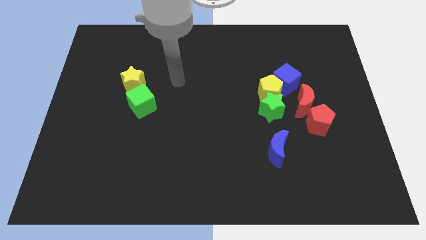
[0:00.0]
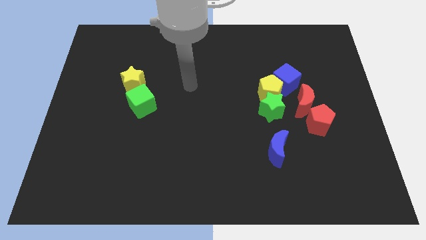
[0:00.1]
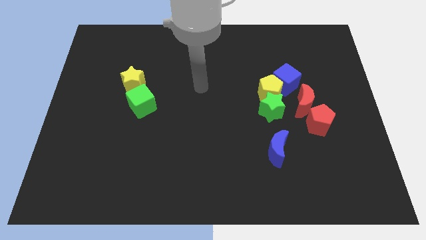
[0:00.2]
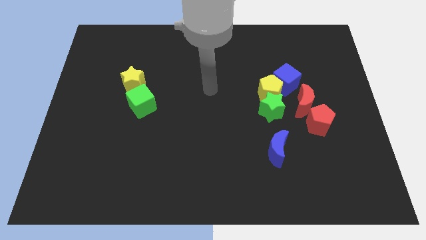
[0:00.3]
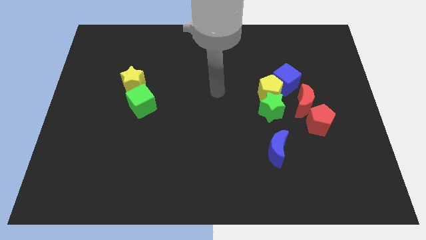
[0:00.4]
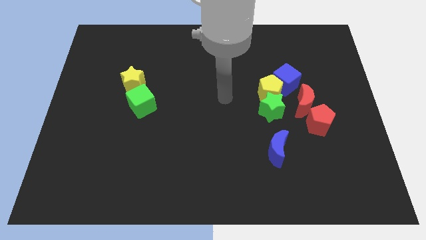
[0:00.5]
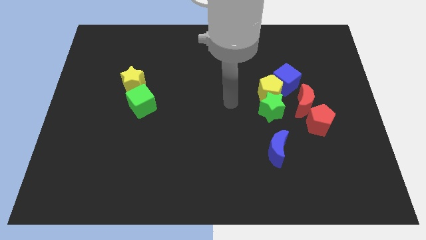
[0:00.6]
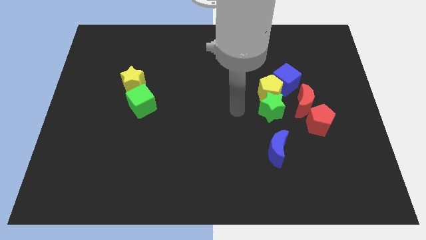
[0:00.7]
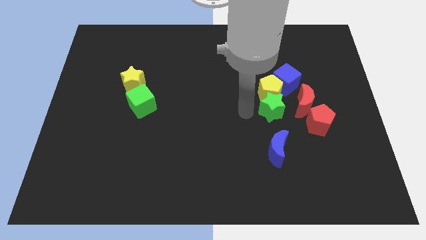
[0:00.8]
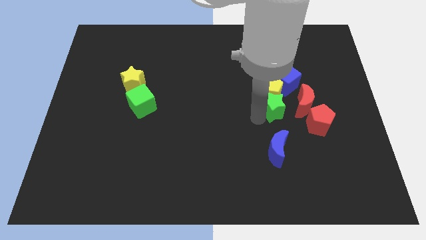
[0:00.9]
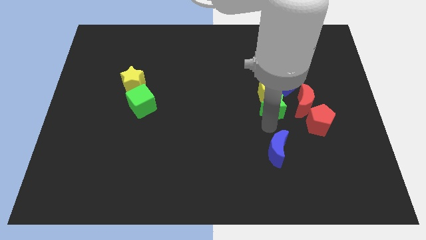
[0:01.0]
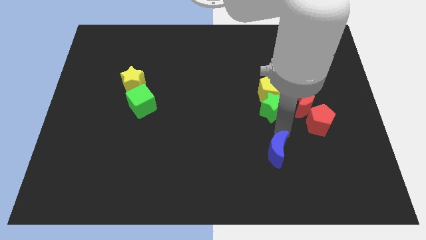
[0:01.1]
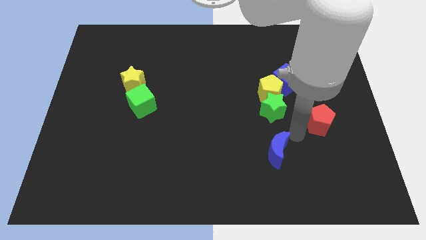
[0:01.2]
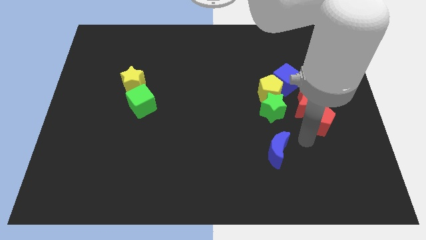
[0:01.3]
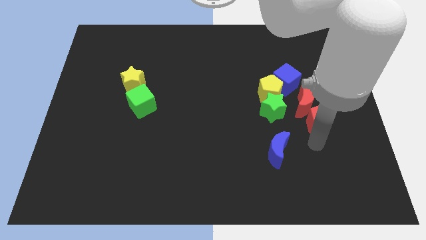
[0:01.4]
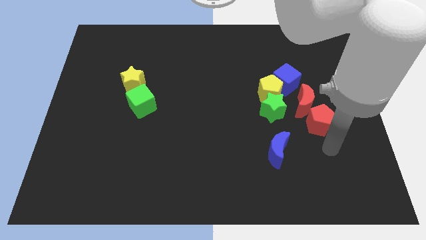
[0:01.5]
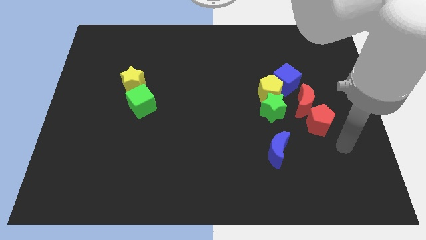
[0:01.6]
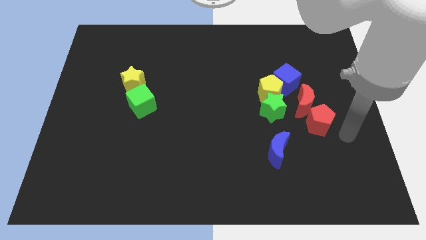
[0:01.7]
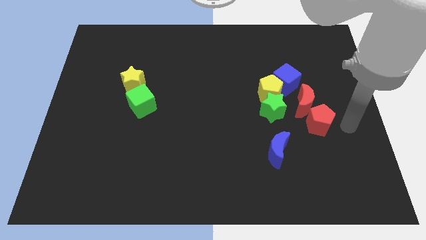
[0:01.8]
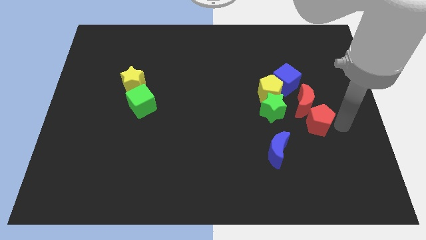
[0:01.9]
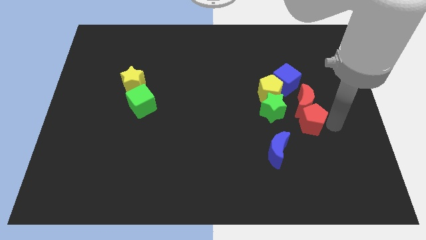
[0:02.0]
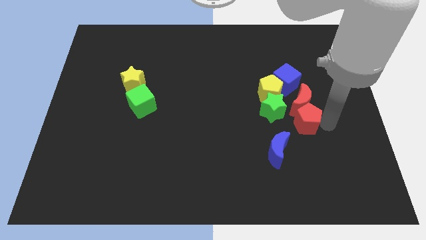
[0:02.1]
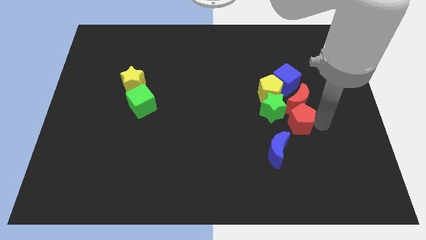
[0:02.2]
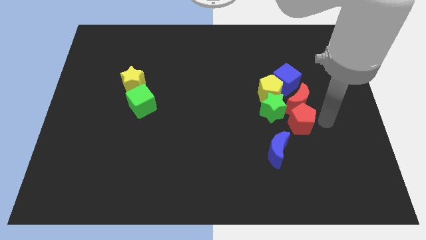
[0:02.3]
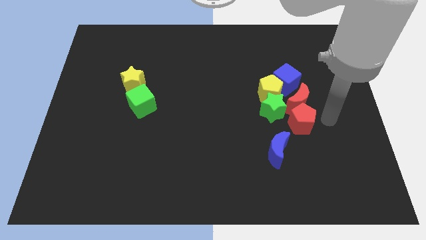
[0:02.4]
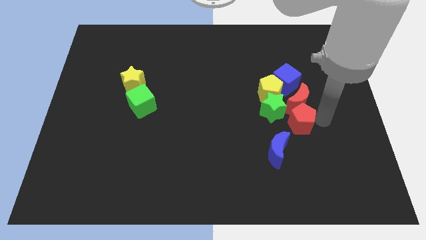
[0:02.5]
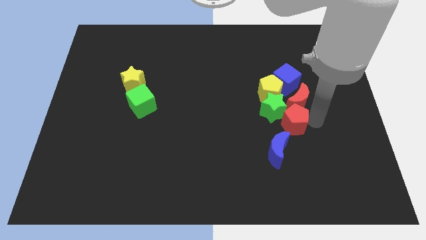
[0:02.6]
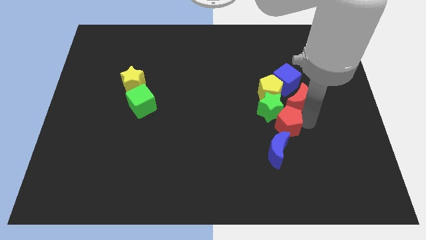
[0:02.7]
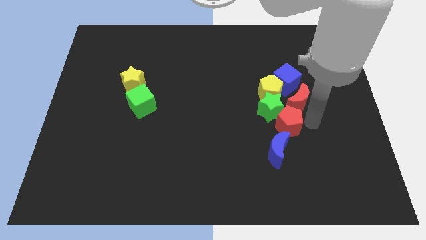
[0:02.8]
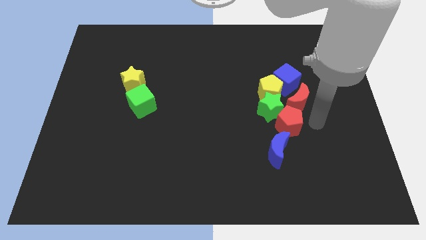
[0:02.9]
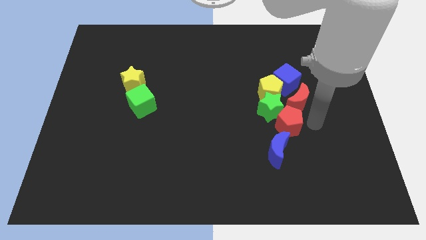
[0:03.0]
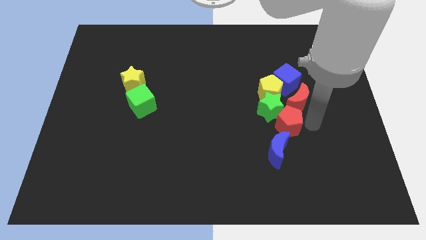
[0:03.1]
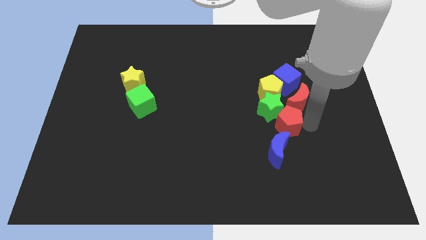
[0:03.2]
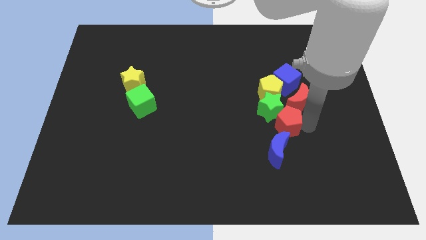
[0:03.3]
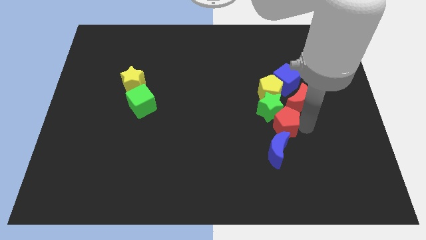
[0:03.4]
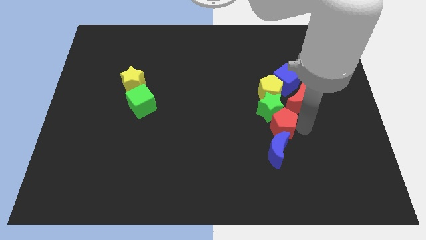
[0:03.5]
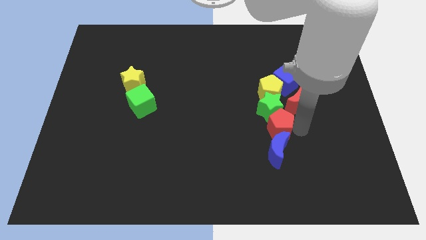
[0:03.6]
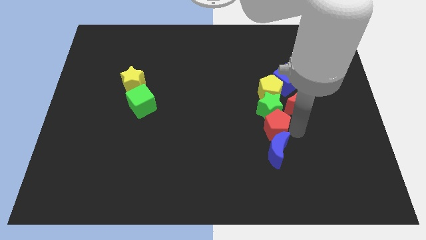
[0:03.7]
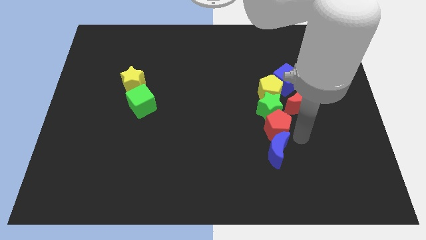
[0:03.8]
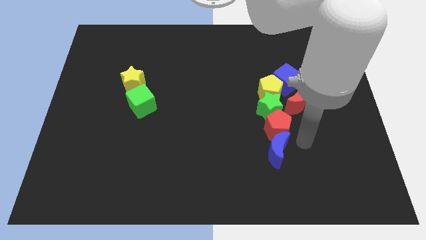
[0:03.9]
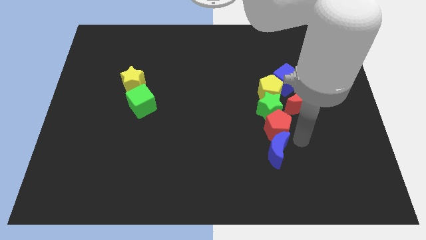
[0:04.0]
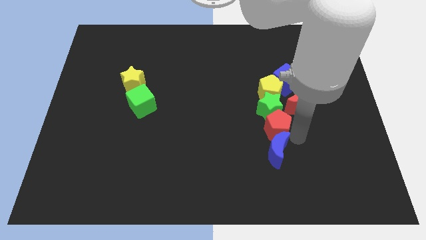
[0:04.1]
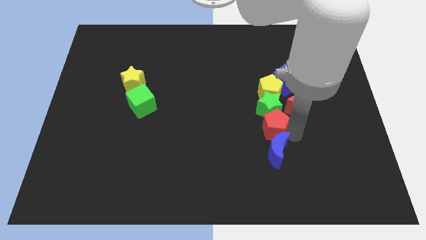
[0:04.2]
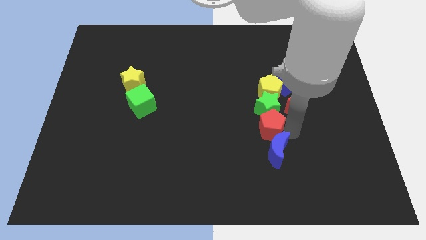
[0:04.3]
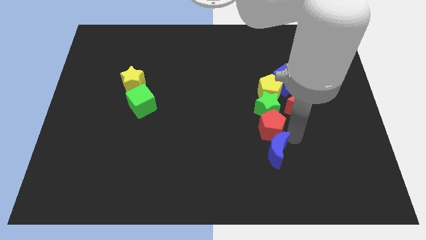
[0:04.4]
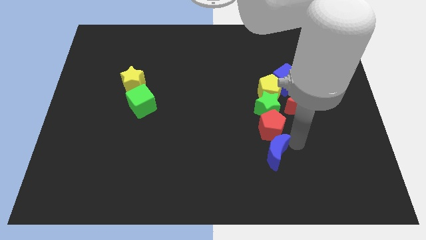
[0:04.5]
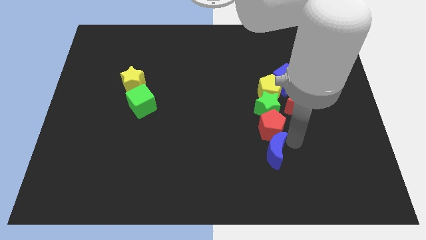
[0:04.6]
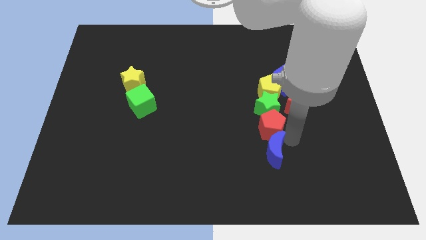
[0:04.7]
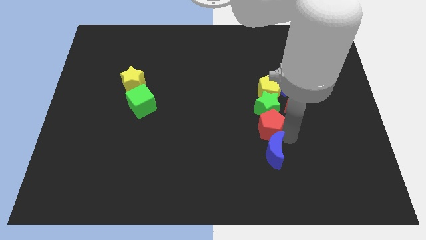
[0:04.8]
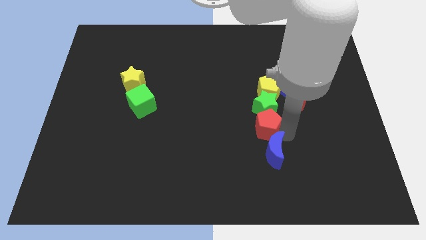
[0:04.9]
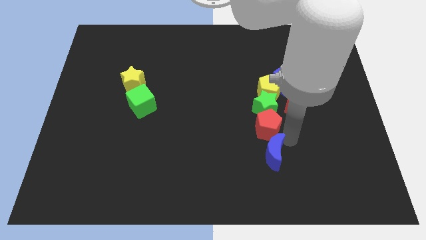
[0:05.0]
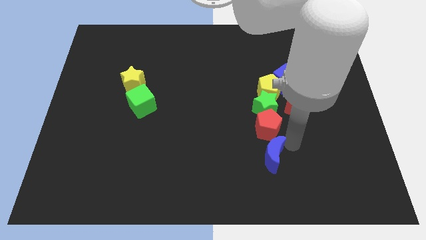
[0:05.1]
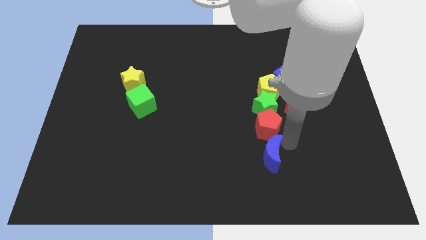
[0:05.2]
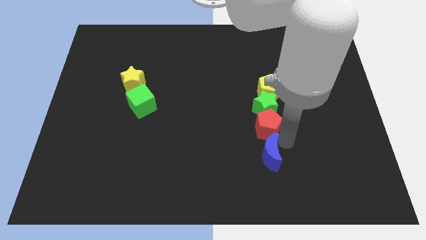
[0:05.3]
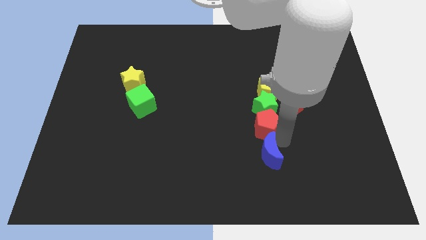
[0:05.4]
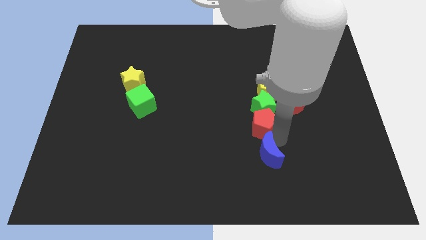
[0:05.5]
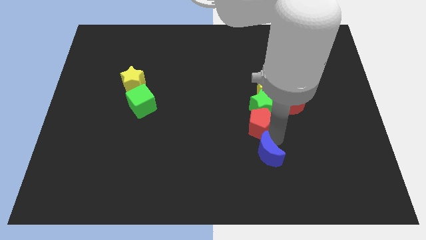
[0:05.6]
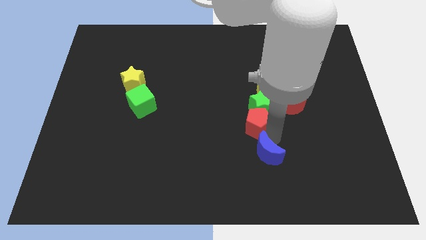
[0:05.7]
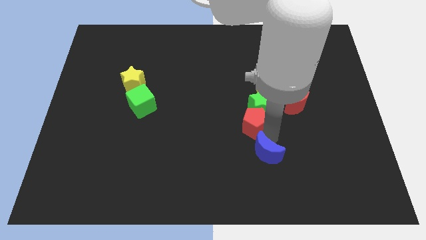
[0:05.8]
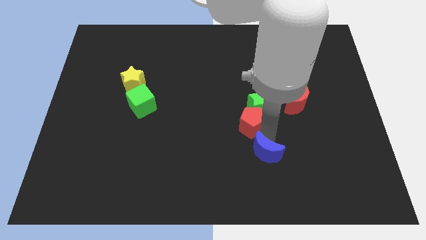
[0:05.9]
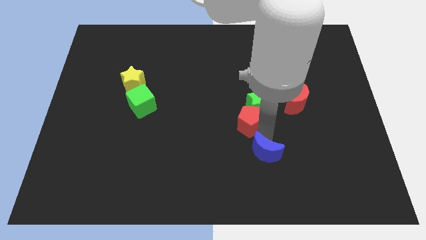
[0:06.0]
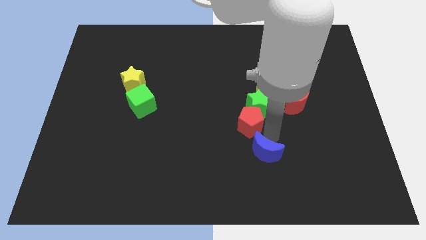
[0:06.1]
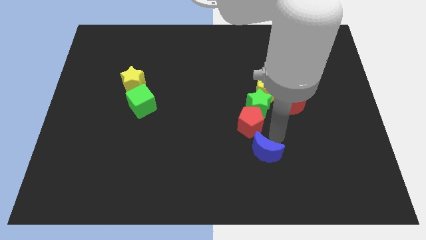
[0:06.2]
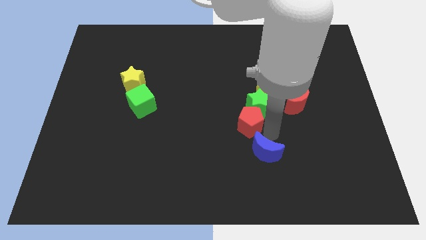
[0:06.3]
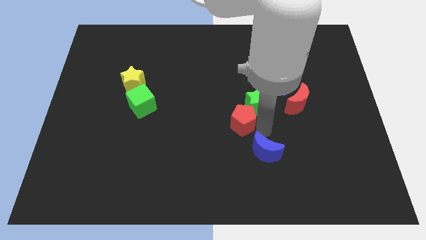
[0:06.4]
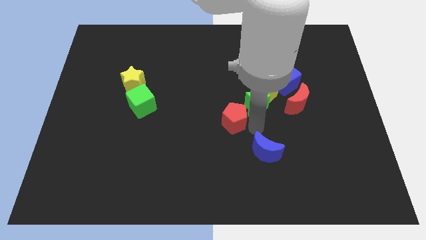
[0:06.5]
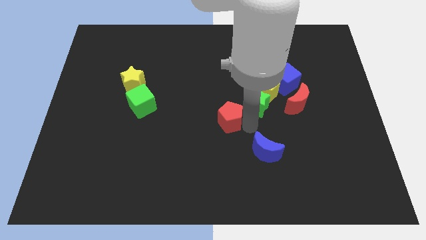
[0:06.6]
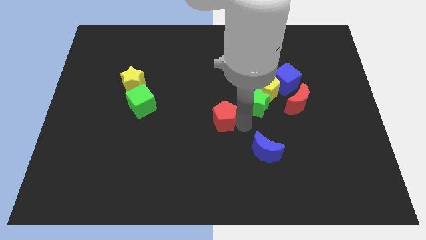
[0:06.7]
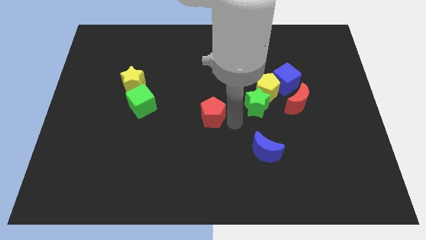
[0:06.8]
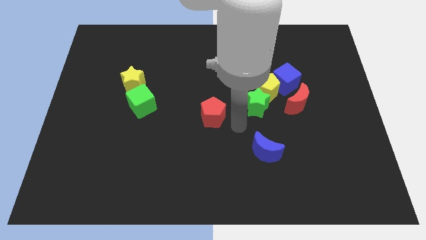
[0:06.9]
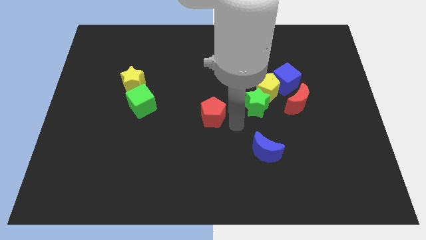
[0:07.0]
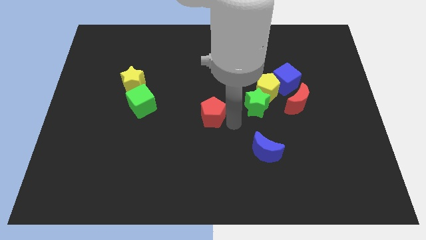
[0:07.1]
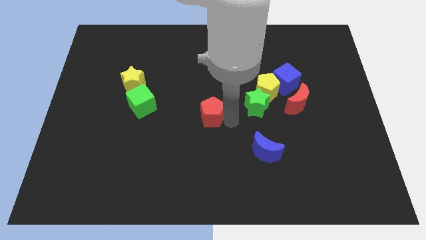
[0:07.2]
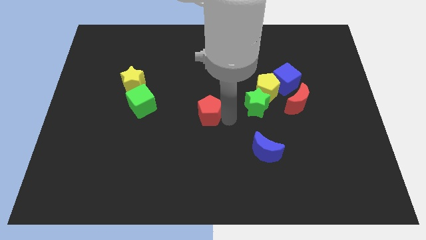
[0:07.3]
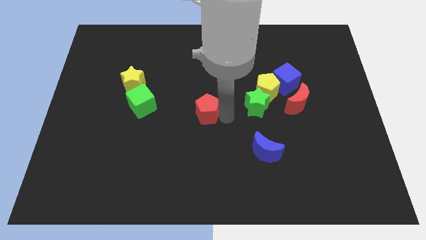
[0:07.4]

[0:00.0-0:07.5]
put the red pentagon just right of the green cube
